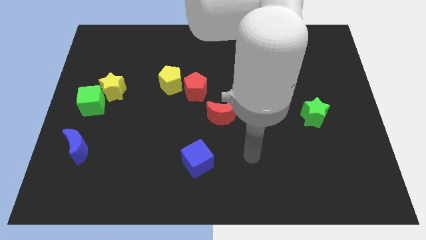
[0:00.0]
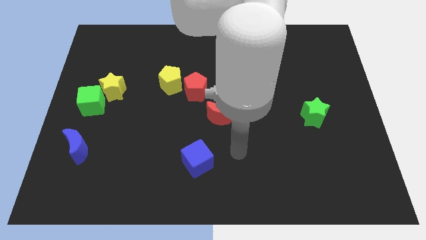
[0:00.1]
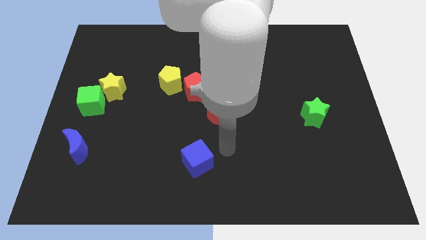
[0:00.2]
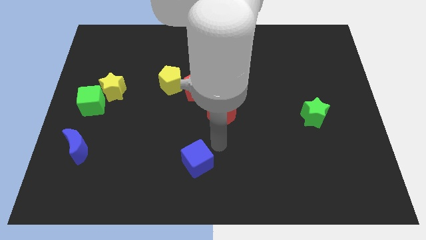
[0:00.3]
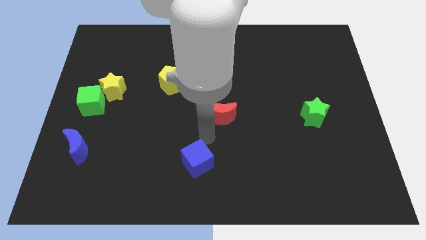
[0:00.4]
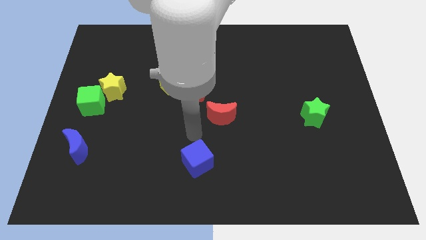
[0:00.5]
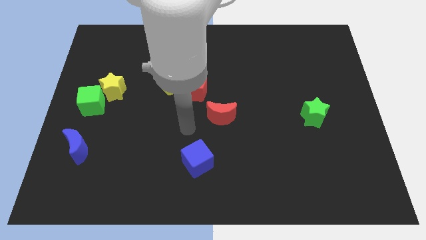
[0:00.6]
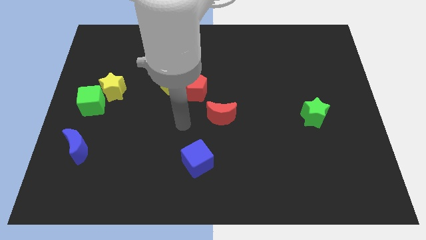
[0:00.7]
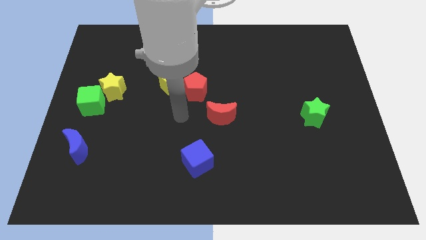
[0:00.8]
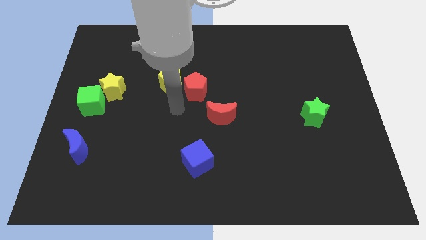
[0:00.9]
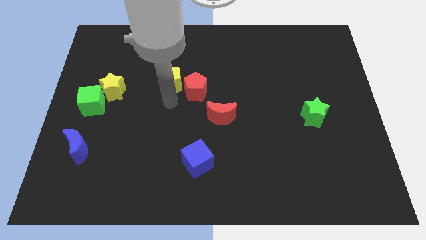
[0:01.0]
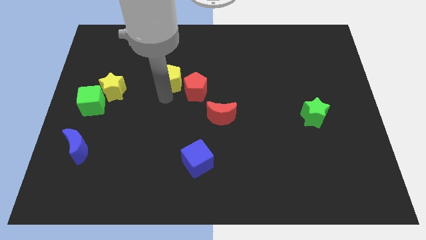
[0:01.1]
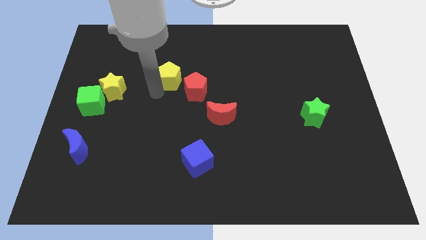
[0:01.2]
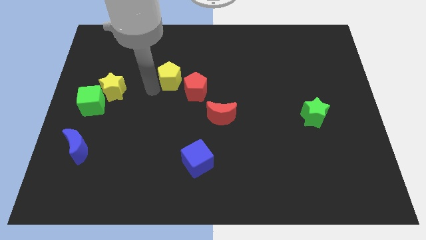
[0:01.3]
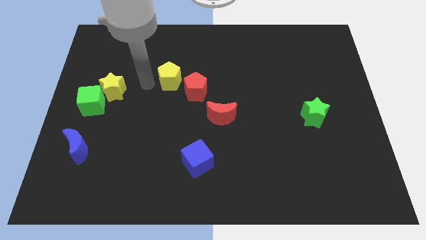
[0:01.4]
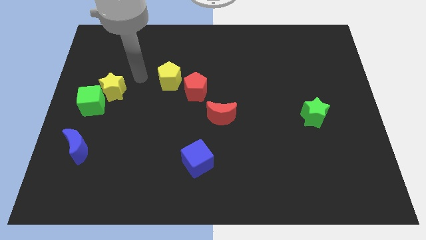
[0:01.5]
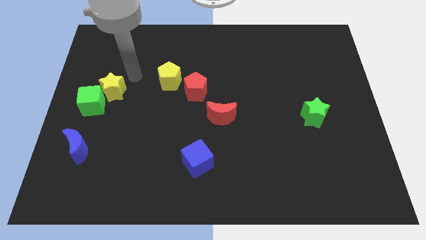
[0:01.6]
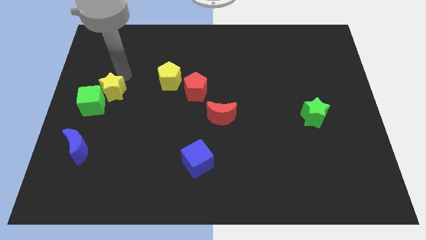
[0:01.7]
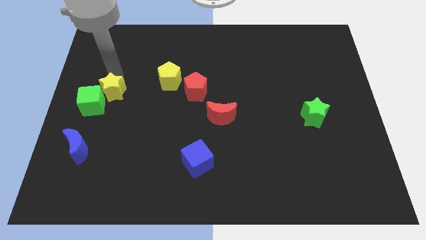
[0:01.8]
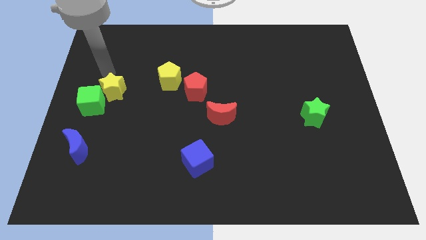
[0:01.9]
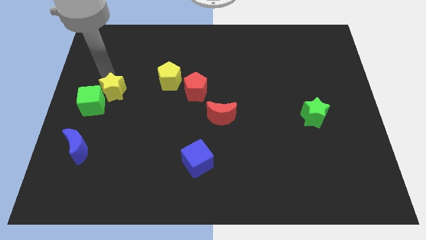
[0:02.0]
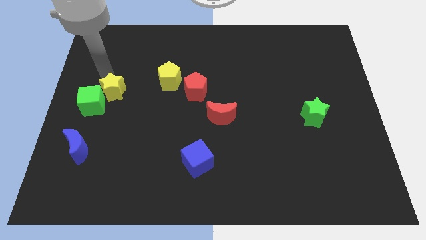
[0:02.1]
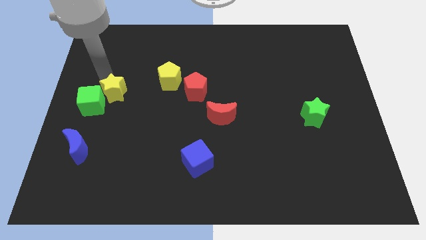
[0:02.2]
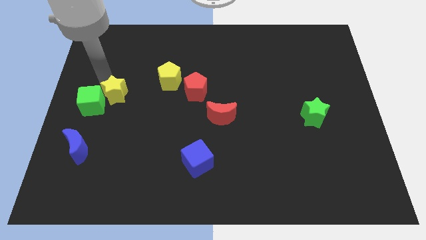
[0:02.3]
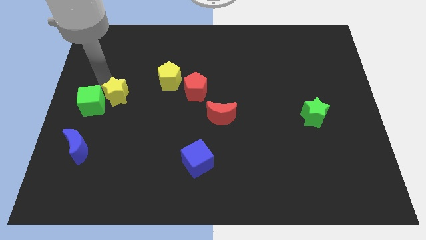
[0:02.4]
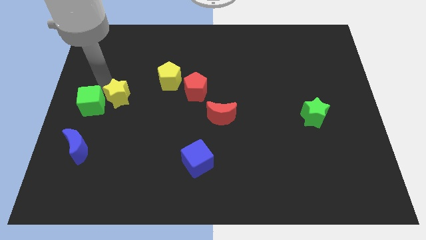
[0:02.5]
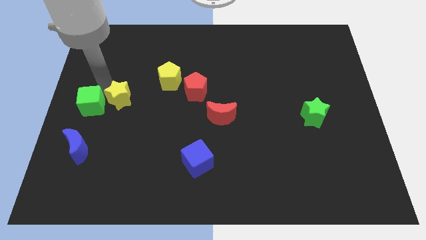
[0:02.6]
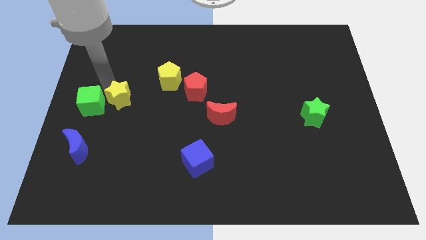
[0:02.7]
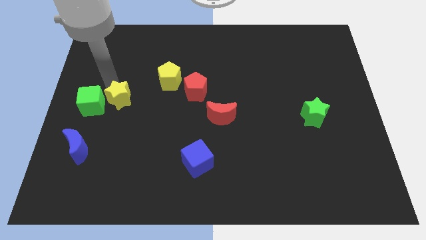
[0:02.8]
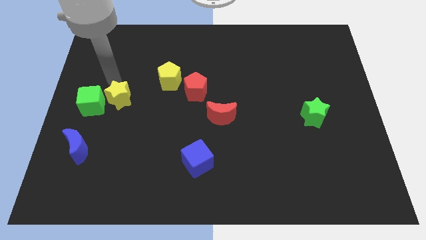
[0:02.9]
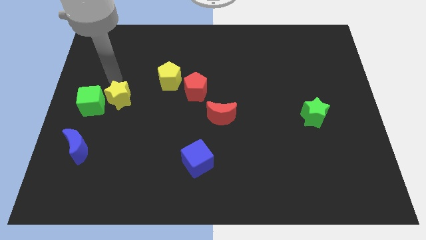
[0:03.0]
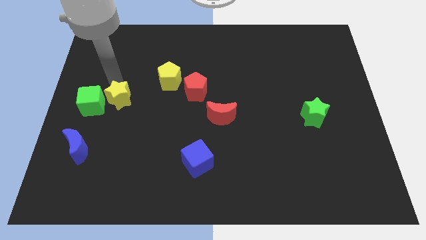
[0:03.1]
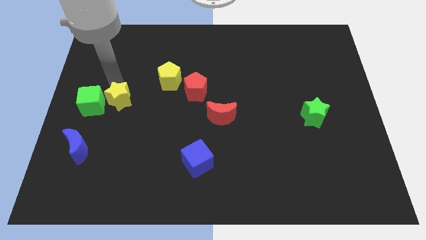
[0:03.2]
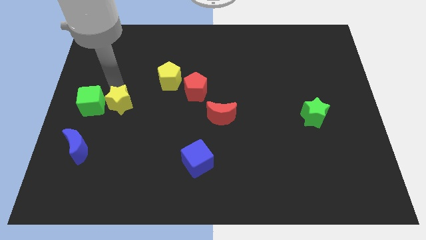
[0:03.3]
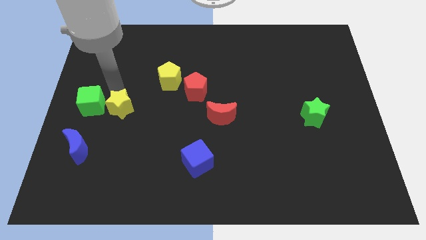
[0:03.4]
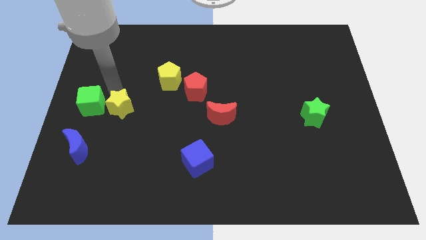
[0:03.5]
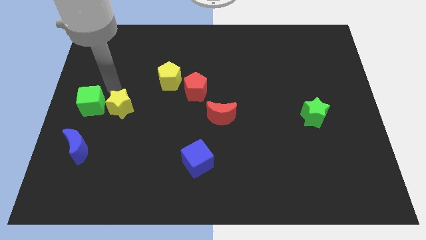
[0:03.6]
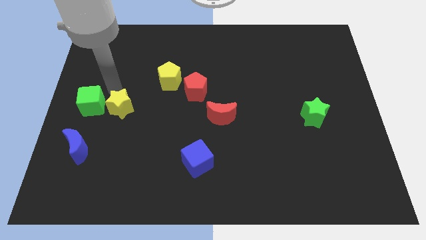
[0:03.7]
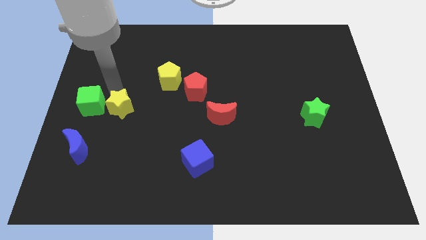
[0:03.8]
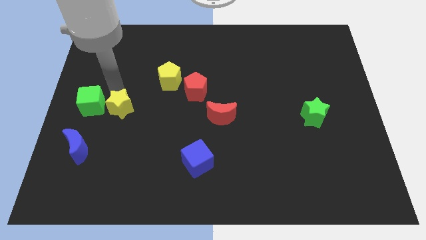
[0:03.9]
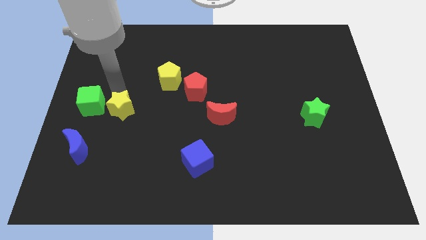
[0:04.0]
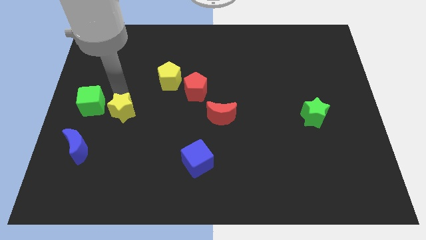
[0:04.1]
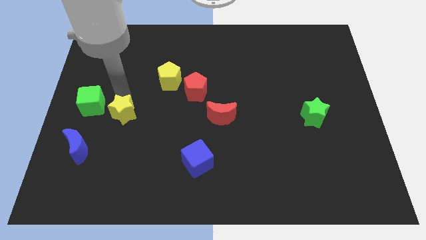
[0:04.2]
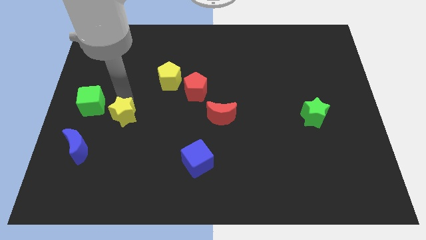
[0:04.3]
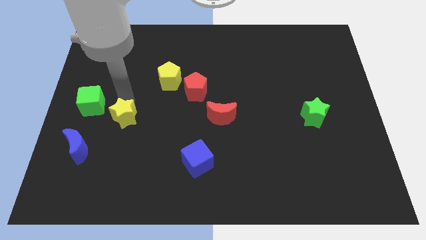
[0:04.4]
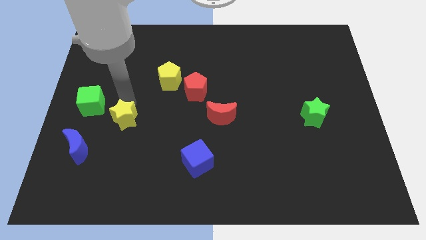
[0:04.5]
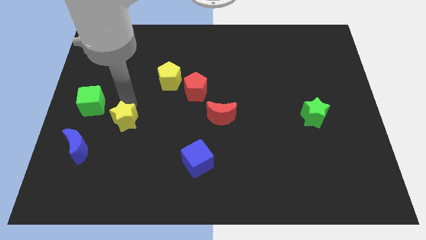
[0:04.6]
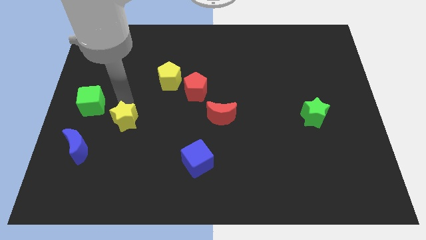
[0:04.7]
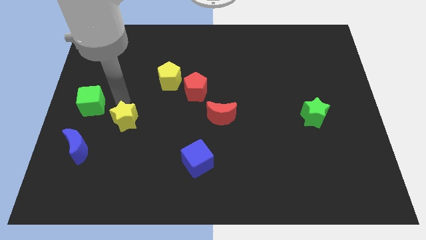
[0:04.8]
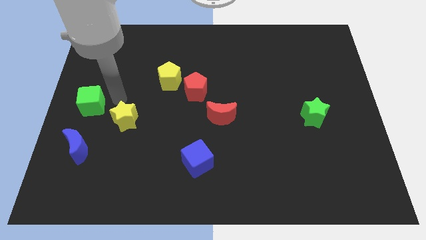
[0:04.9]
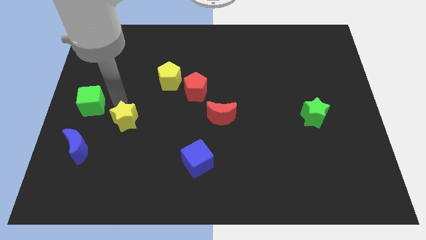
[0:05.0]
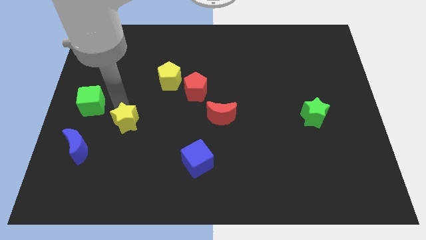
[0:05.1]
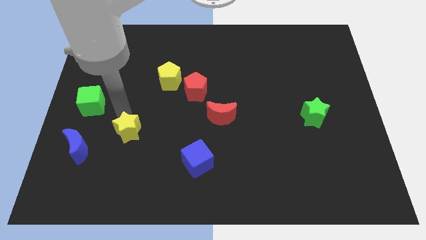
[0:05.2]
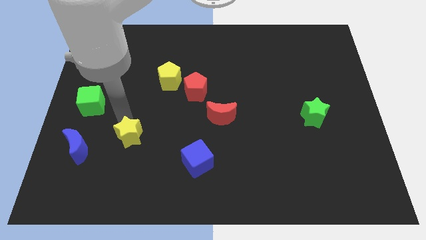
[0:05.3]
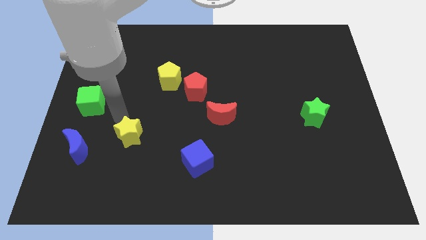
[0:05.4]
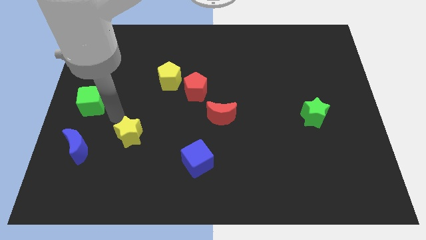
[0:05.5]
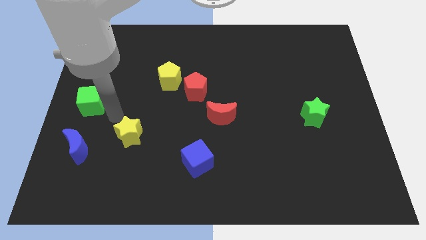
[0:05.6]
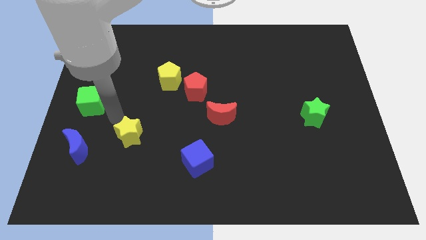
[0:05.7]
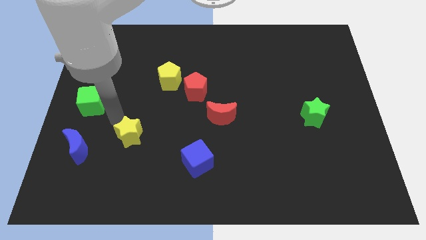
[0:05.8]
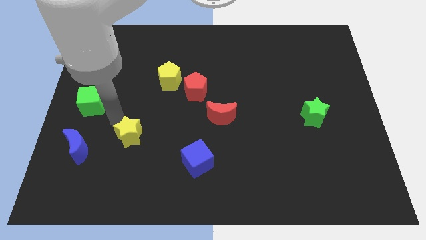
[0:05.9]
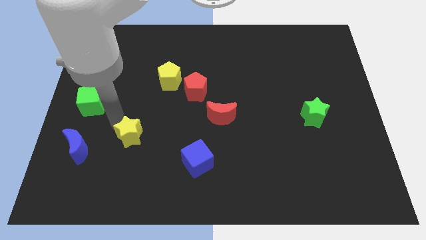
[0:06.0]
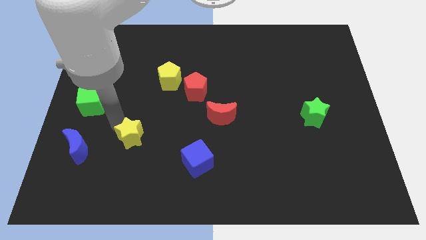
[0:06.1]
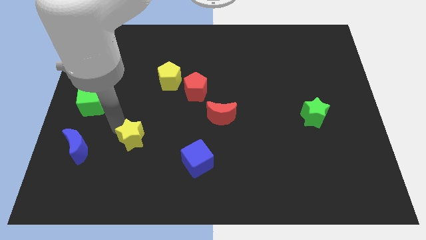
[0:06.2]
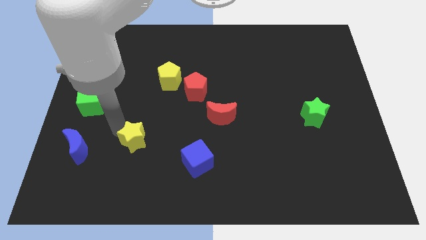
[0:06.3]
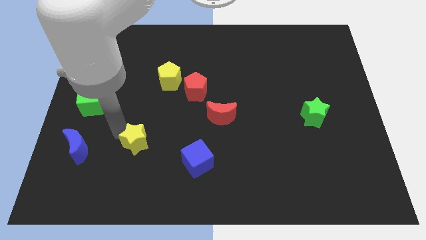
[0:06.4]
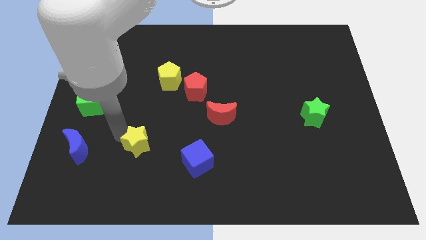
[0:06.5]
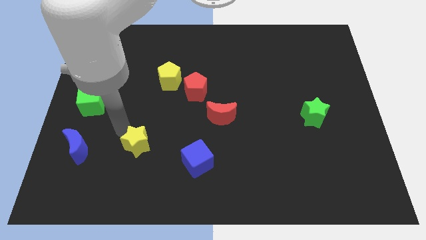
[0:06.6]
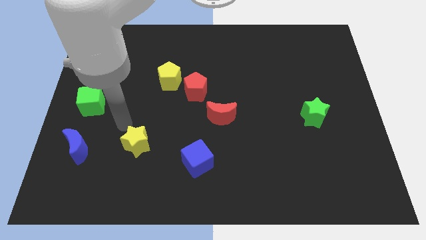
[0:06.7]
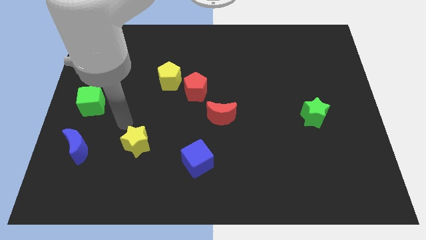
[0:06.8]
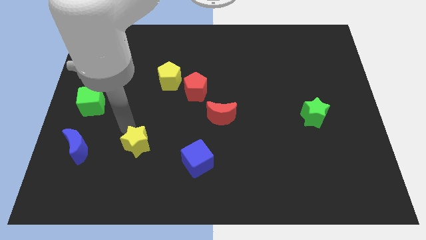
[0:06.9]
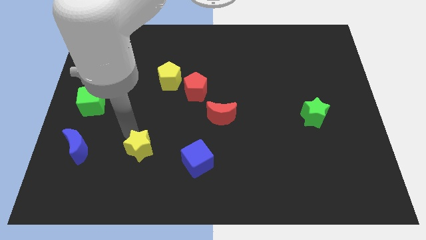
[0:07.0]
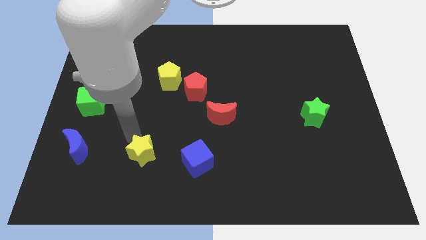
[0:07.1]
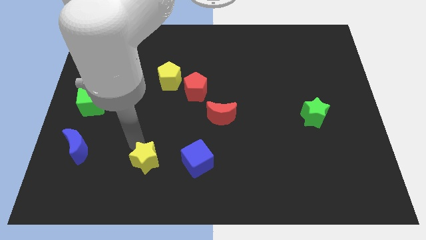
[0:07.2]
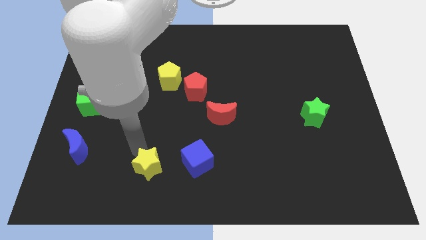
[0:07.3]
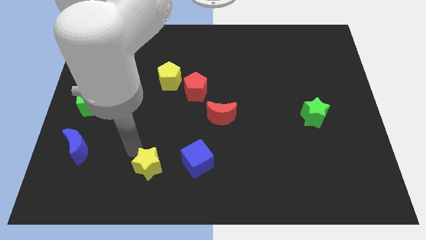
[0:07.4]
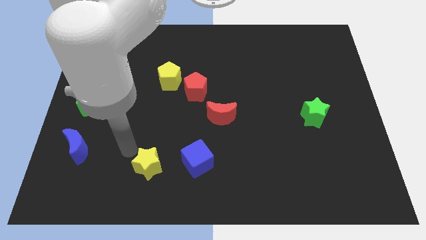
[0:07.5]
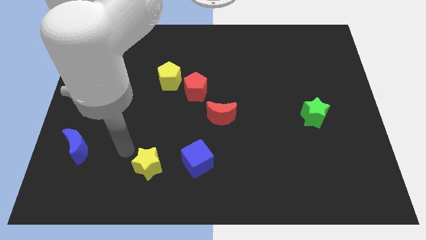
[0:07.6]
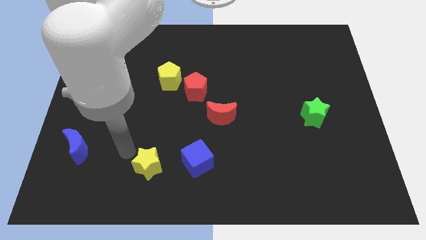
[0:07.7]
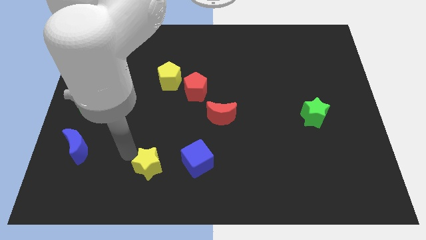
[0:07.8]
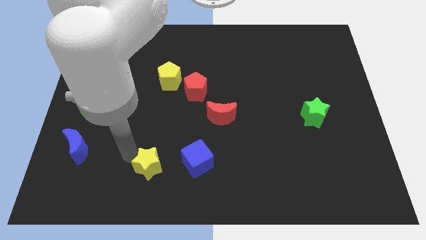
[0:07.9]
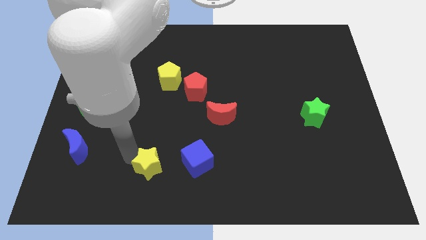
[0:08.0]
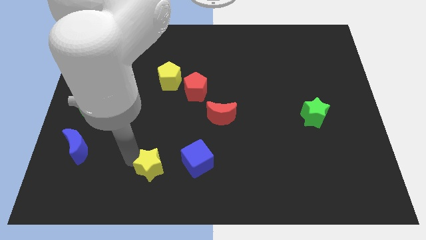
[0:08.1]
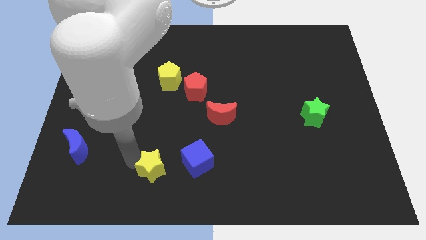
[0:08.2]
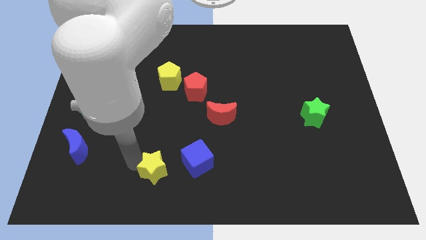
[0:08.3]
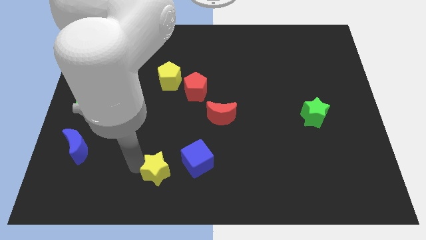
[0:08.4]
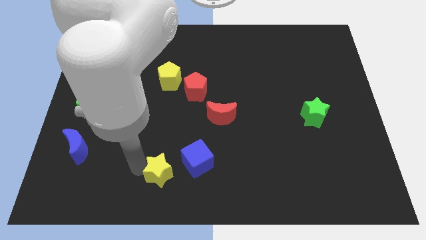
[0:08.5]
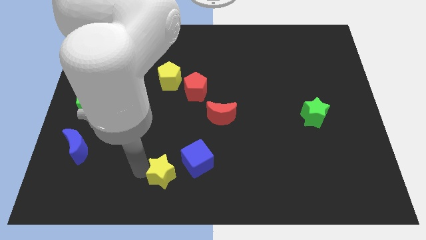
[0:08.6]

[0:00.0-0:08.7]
push the yellow star to the bottom side
